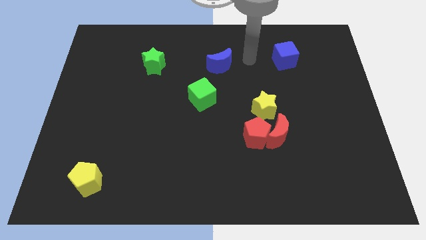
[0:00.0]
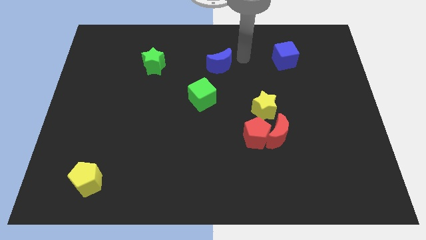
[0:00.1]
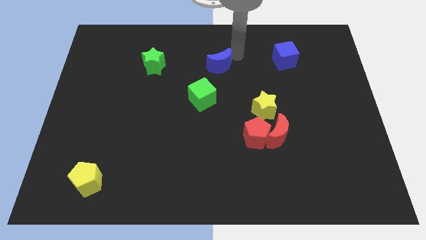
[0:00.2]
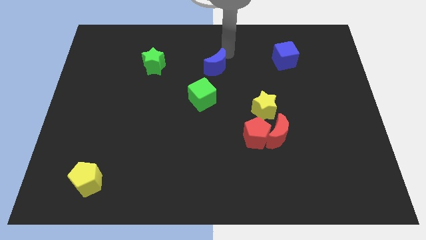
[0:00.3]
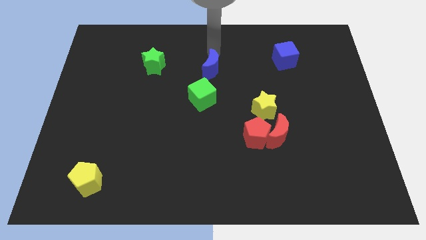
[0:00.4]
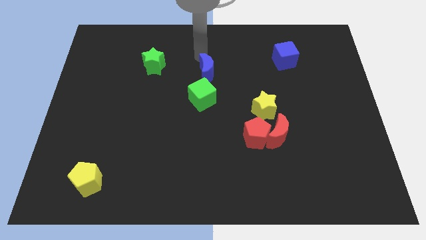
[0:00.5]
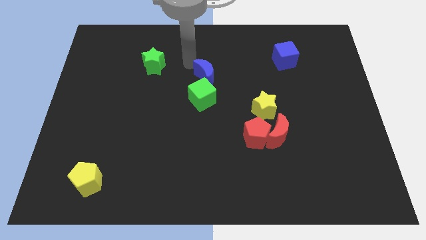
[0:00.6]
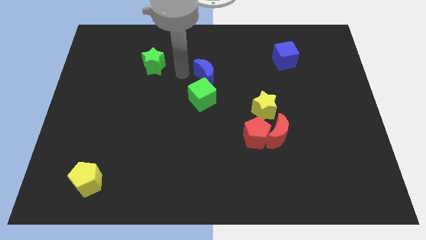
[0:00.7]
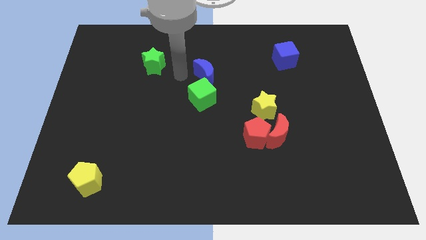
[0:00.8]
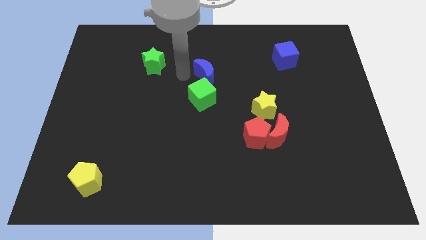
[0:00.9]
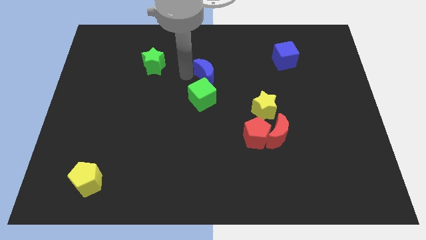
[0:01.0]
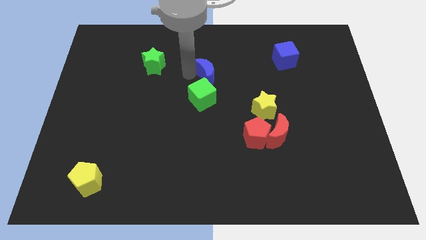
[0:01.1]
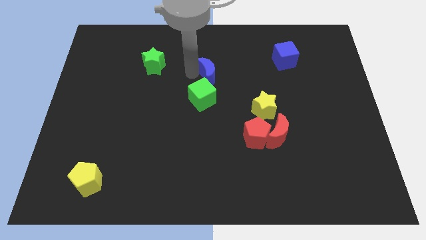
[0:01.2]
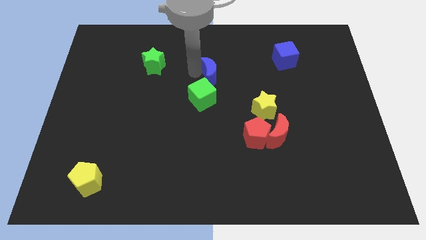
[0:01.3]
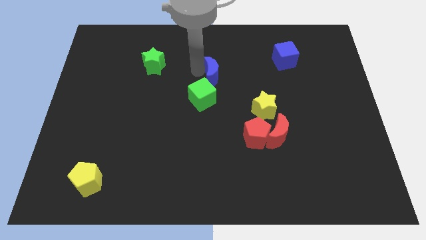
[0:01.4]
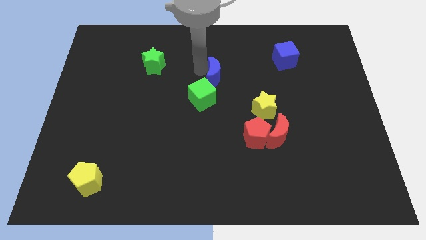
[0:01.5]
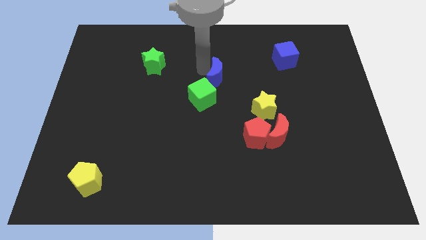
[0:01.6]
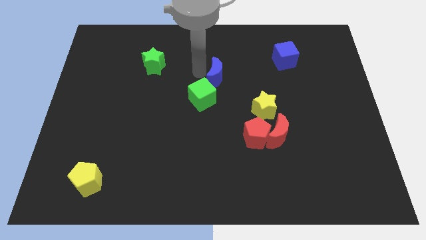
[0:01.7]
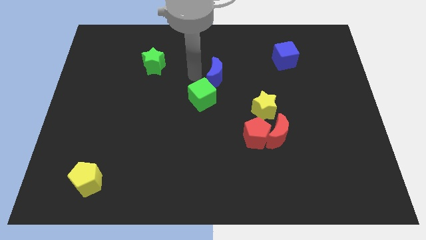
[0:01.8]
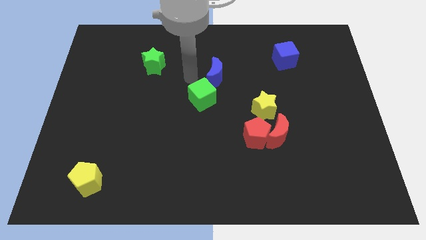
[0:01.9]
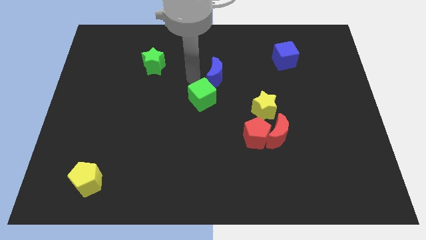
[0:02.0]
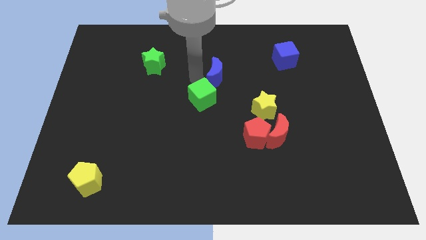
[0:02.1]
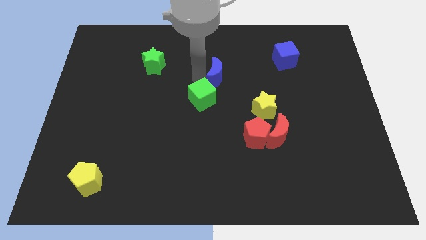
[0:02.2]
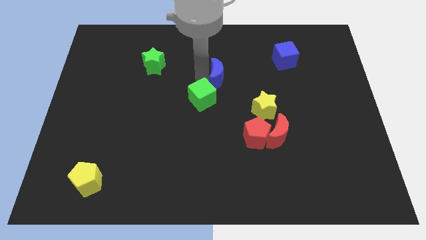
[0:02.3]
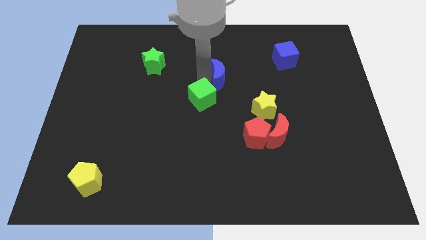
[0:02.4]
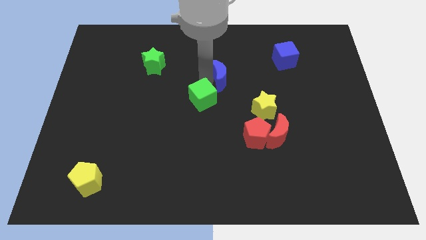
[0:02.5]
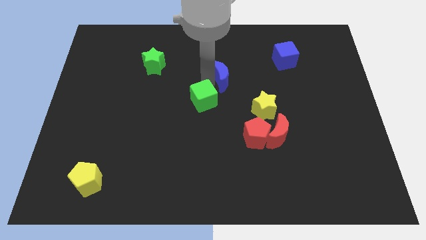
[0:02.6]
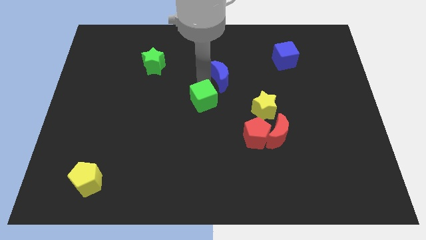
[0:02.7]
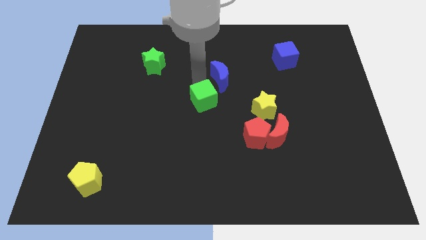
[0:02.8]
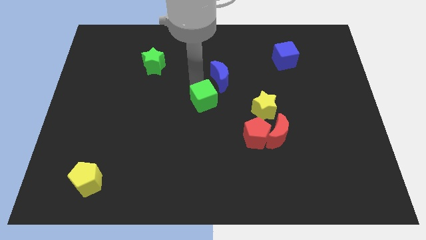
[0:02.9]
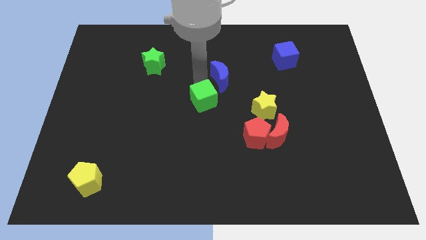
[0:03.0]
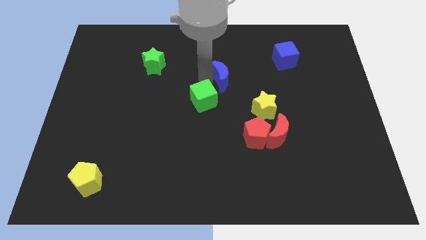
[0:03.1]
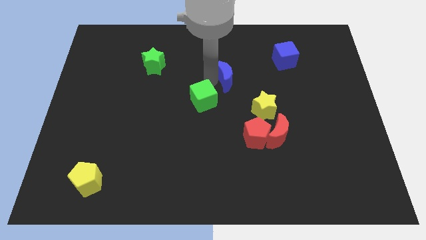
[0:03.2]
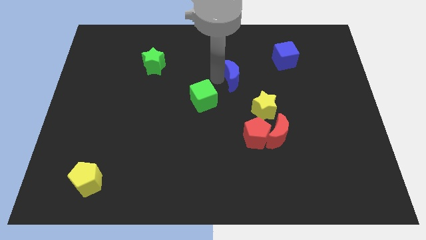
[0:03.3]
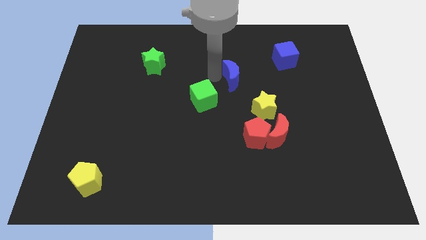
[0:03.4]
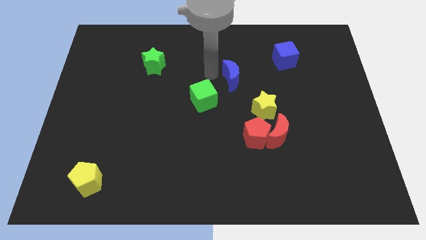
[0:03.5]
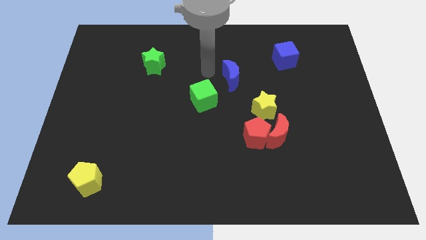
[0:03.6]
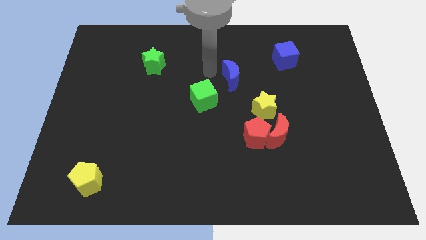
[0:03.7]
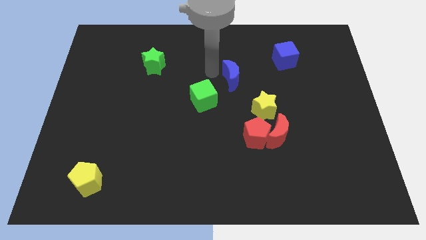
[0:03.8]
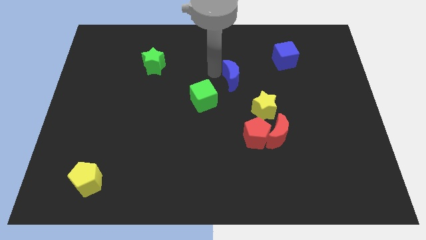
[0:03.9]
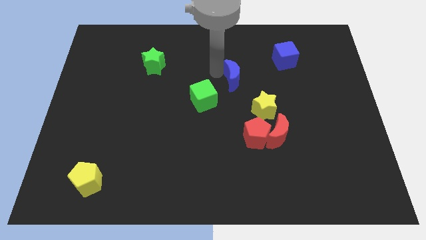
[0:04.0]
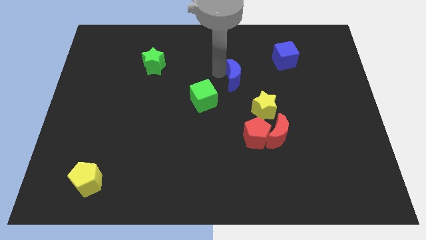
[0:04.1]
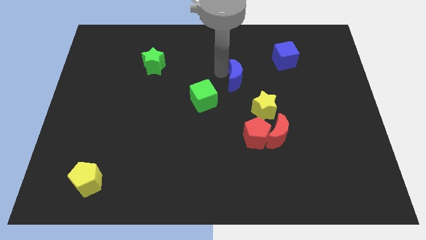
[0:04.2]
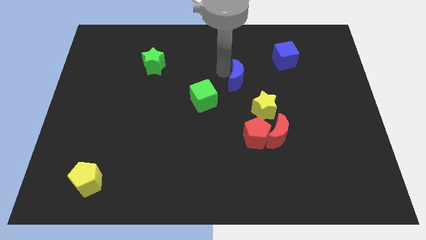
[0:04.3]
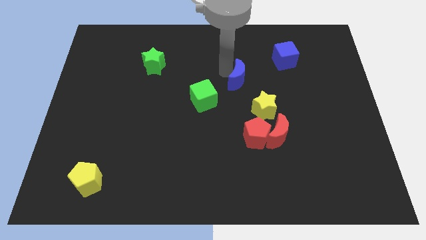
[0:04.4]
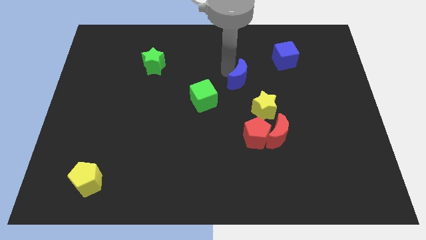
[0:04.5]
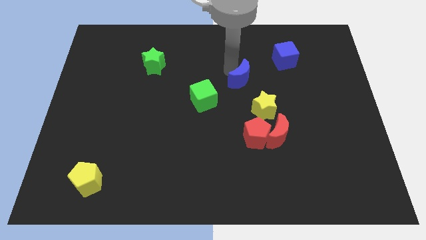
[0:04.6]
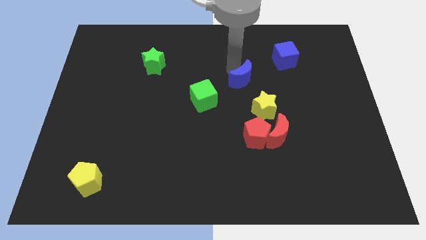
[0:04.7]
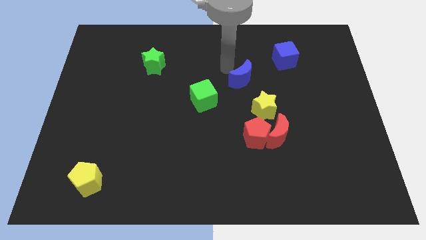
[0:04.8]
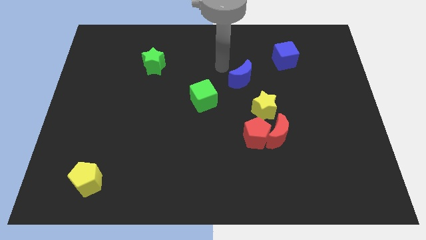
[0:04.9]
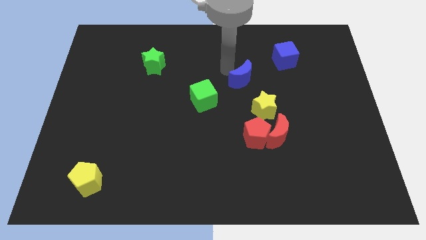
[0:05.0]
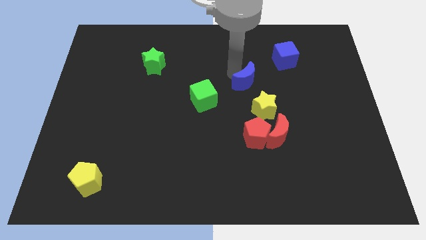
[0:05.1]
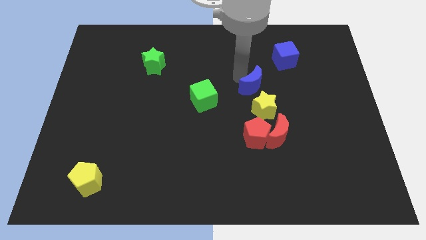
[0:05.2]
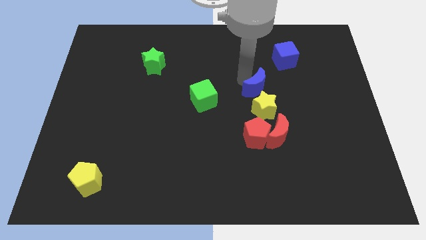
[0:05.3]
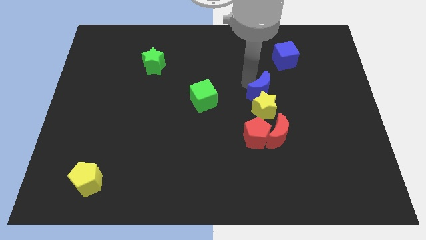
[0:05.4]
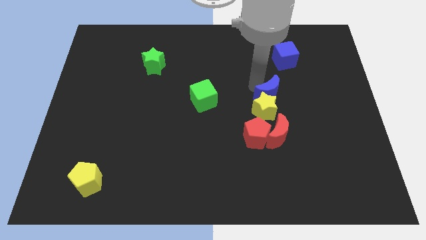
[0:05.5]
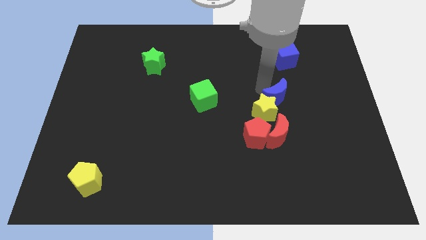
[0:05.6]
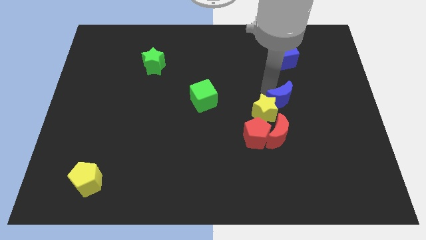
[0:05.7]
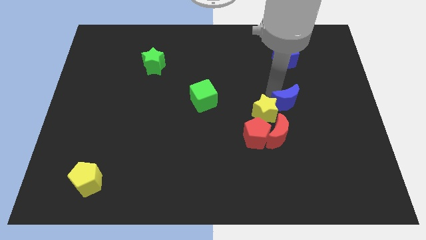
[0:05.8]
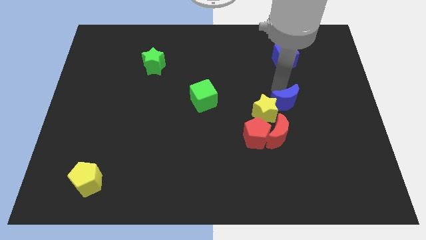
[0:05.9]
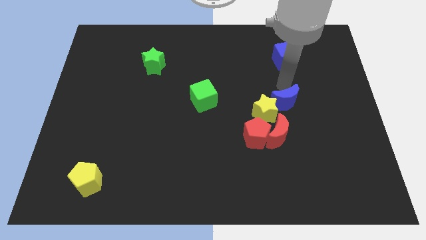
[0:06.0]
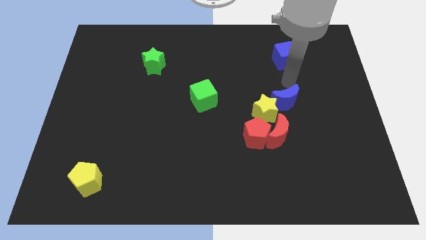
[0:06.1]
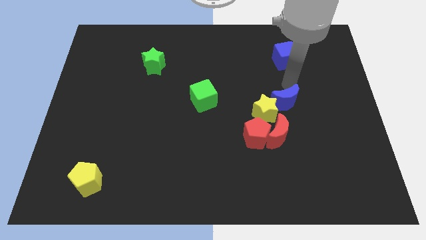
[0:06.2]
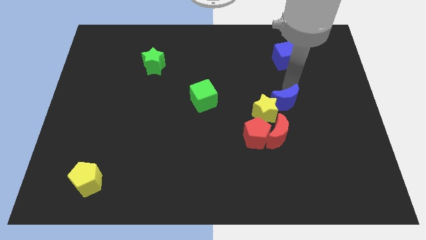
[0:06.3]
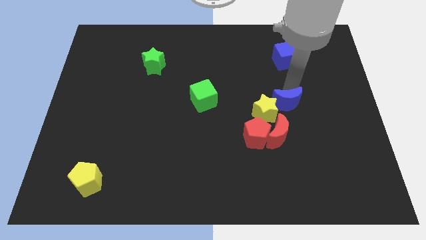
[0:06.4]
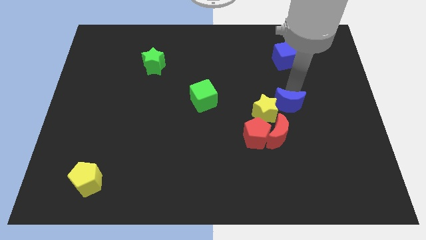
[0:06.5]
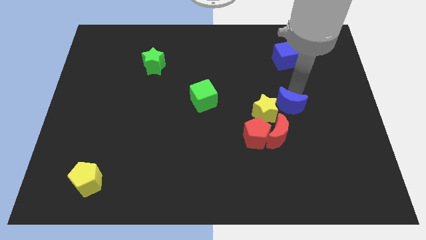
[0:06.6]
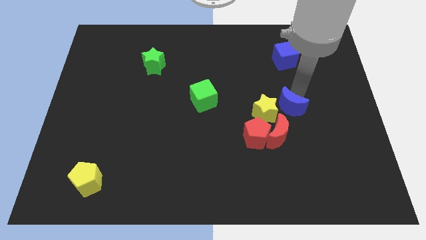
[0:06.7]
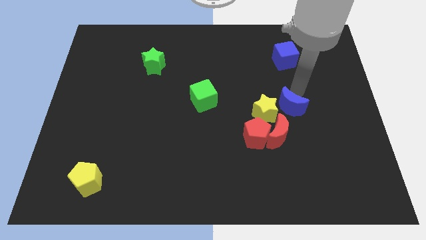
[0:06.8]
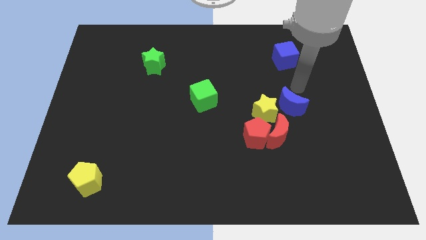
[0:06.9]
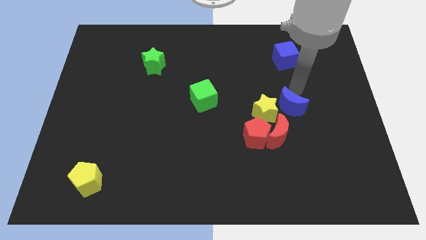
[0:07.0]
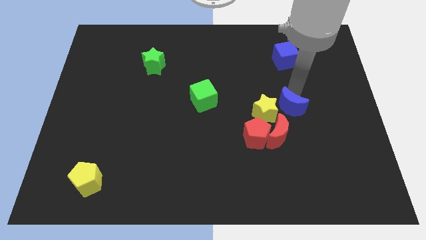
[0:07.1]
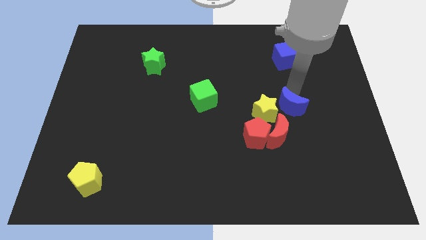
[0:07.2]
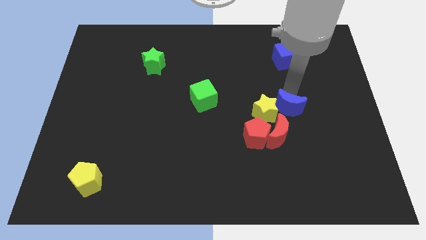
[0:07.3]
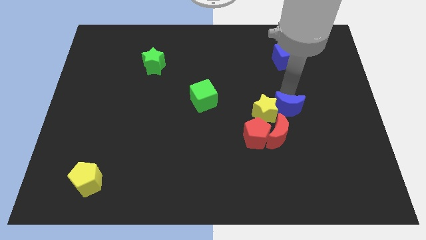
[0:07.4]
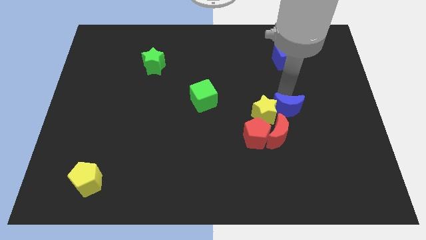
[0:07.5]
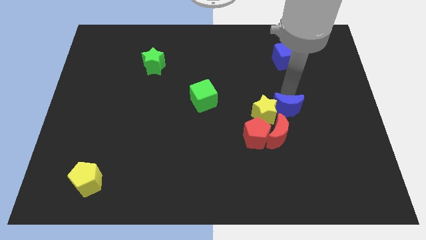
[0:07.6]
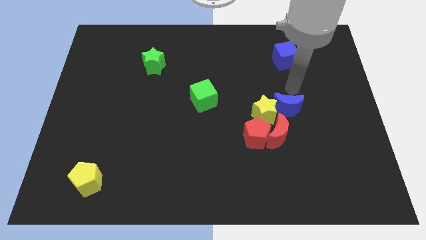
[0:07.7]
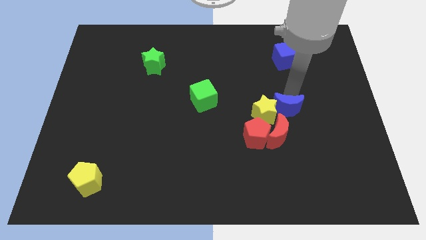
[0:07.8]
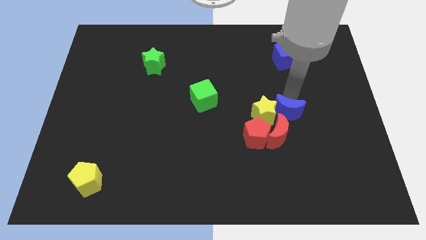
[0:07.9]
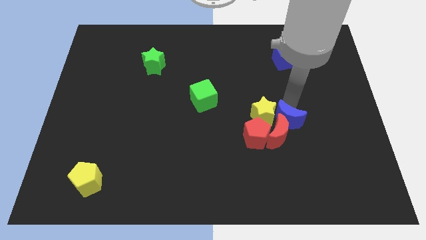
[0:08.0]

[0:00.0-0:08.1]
slide the blue moon towards the red moon

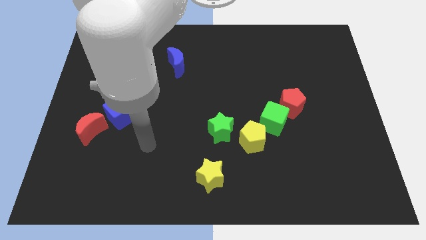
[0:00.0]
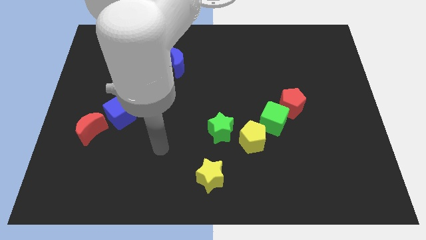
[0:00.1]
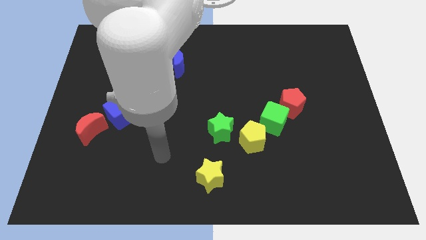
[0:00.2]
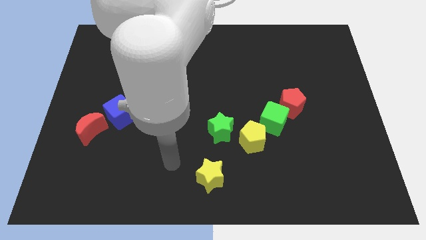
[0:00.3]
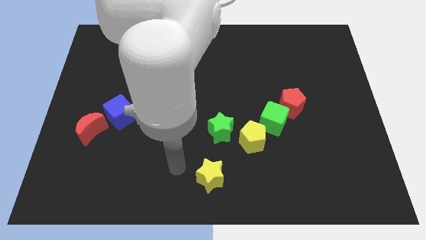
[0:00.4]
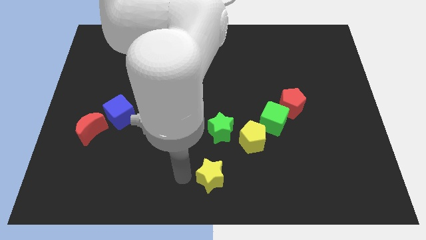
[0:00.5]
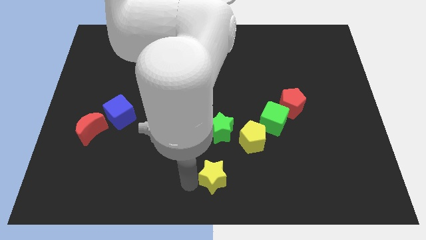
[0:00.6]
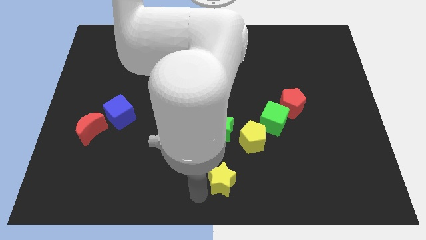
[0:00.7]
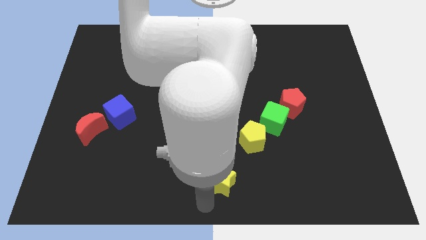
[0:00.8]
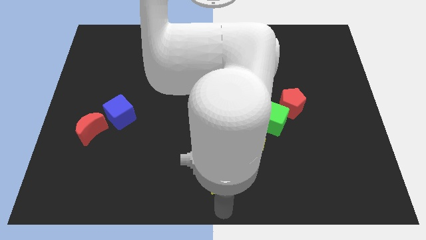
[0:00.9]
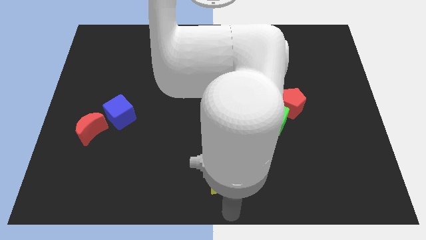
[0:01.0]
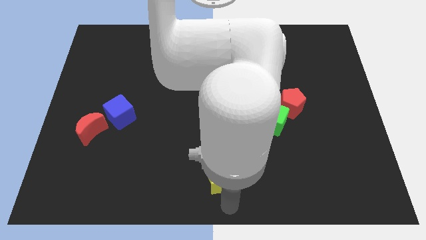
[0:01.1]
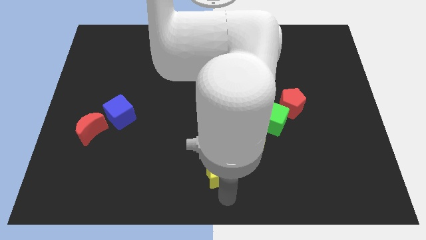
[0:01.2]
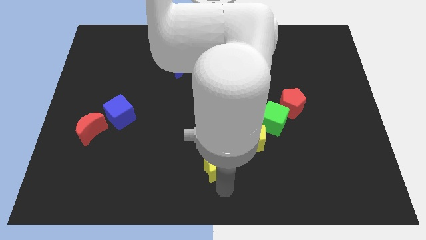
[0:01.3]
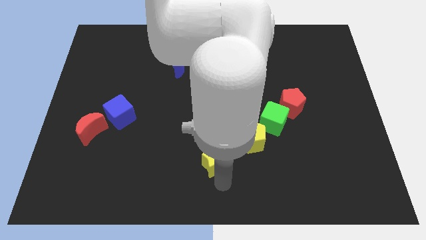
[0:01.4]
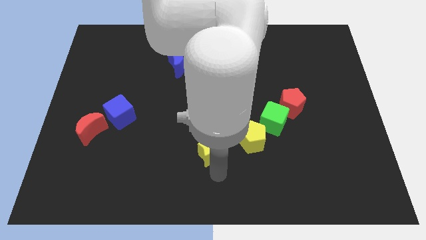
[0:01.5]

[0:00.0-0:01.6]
push the yellow star towards the green star
